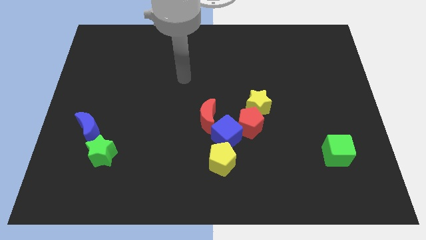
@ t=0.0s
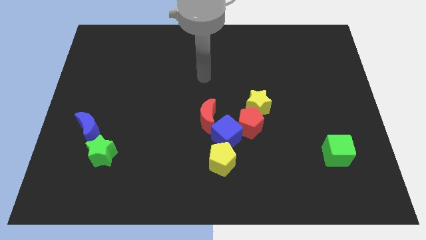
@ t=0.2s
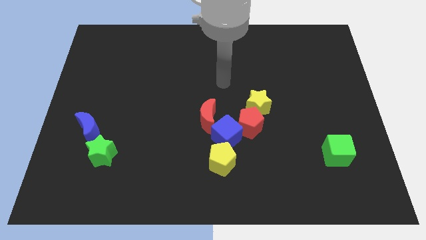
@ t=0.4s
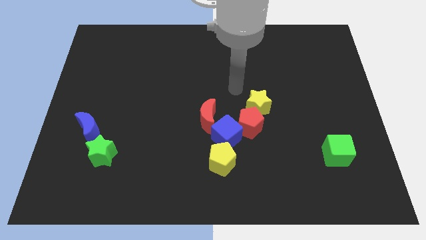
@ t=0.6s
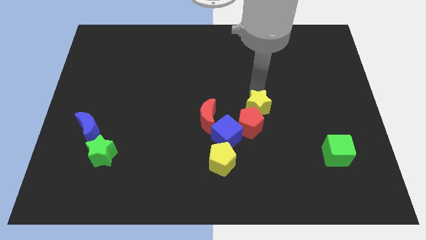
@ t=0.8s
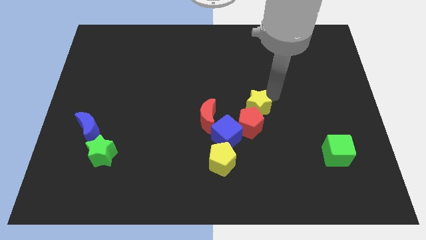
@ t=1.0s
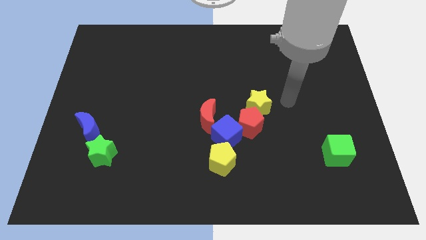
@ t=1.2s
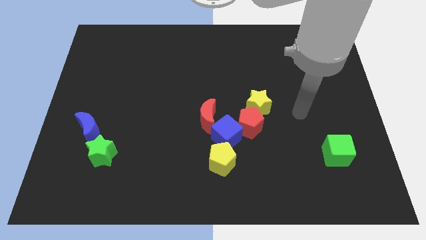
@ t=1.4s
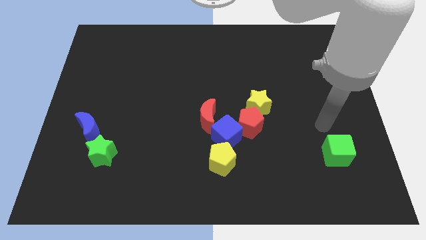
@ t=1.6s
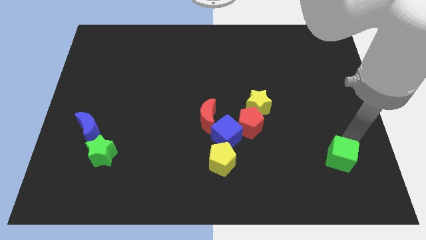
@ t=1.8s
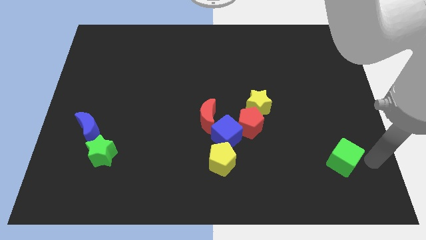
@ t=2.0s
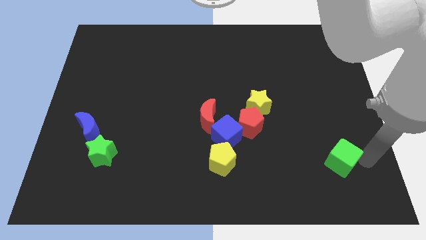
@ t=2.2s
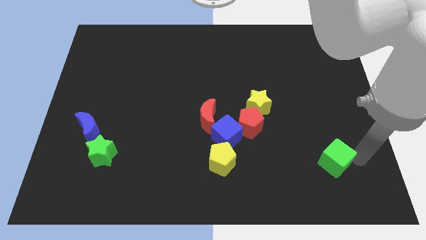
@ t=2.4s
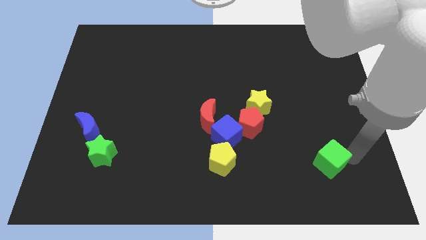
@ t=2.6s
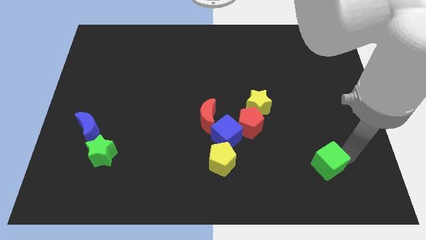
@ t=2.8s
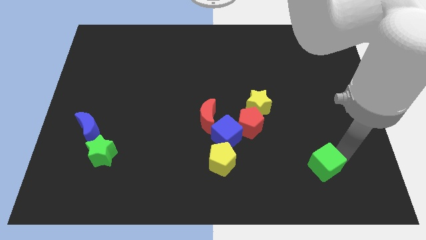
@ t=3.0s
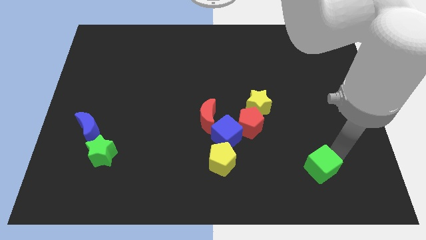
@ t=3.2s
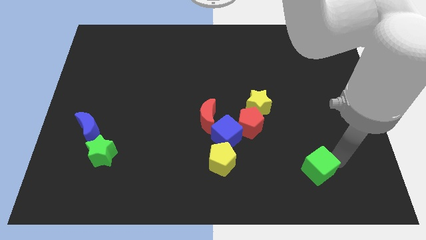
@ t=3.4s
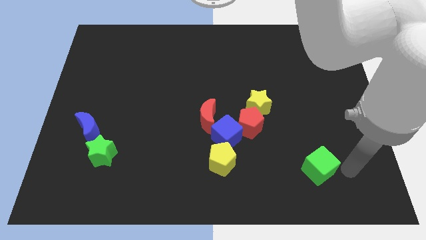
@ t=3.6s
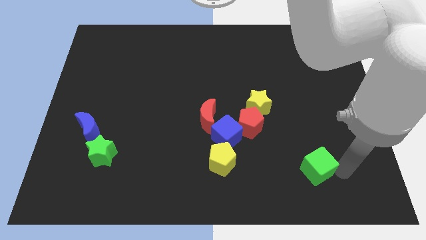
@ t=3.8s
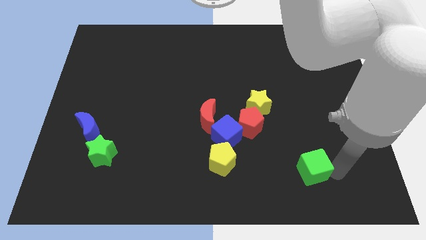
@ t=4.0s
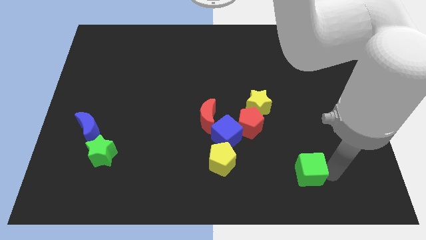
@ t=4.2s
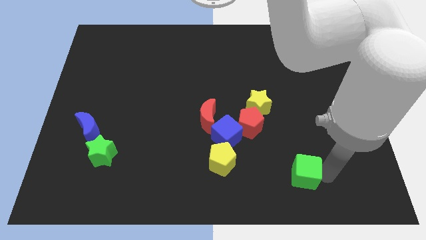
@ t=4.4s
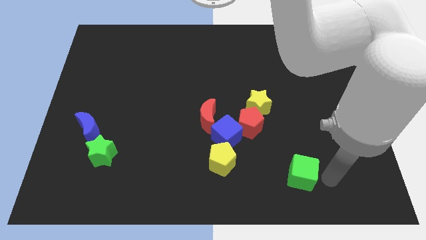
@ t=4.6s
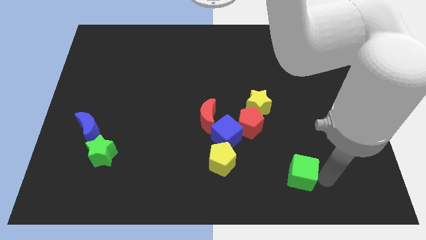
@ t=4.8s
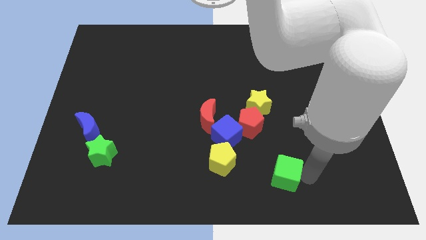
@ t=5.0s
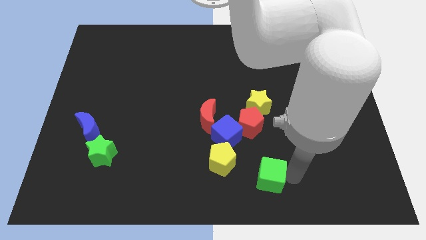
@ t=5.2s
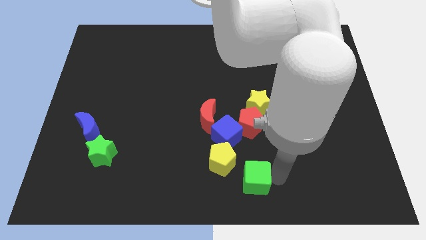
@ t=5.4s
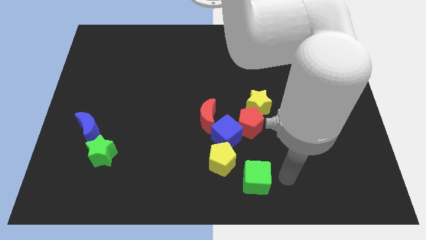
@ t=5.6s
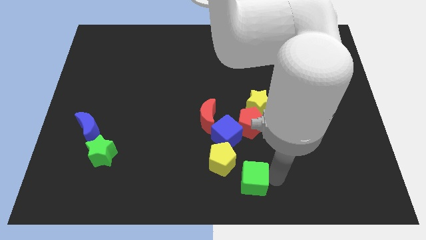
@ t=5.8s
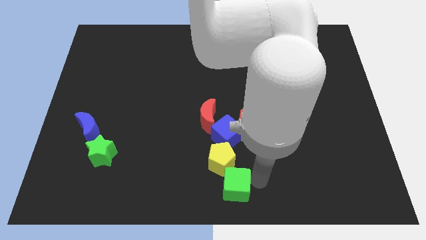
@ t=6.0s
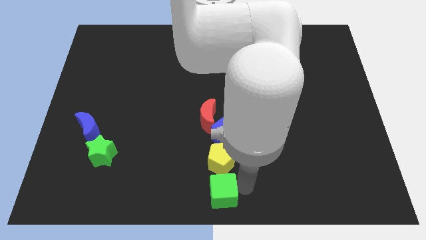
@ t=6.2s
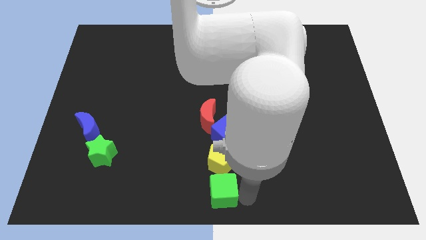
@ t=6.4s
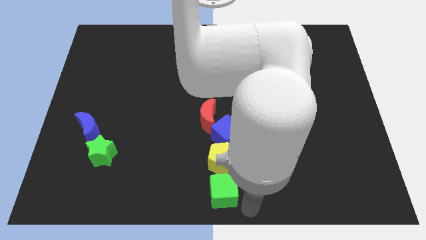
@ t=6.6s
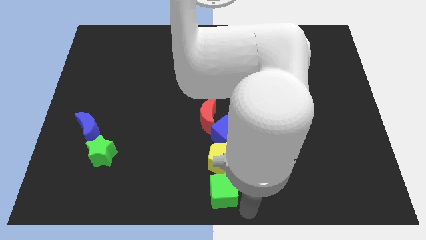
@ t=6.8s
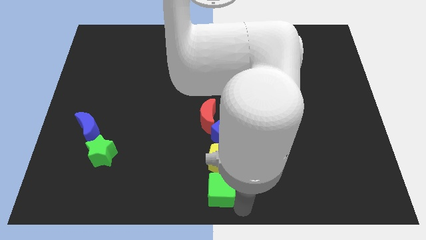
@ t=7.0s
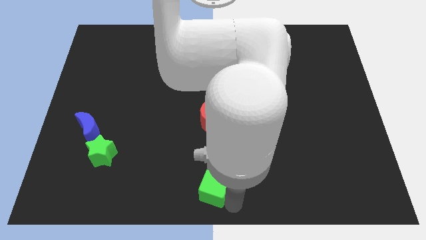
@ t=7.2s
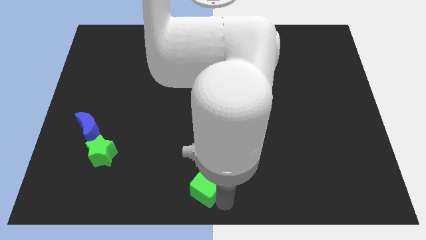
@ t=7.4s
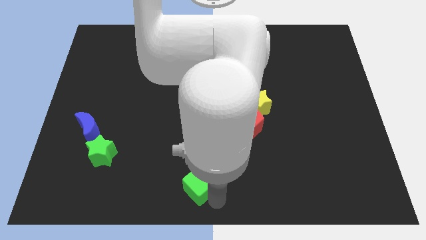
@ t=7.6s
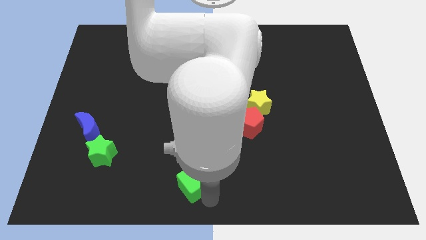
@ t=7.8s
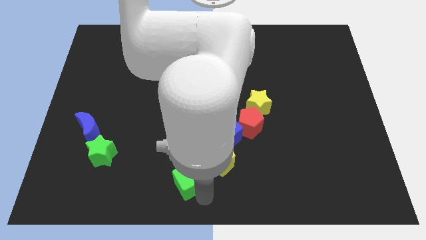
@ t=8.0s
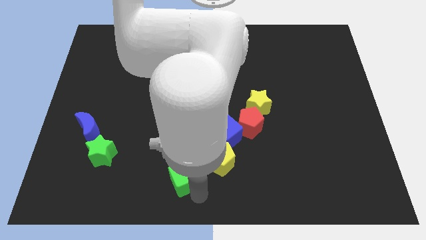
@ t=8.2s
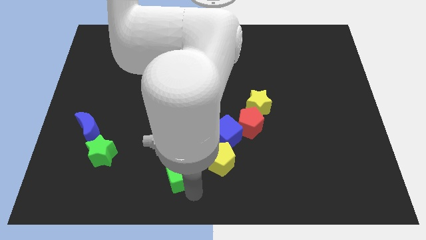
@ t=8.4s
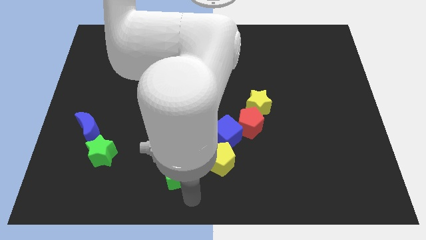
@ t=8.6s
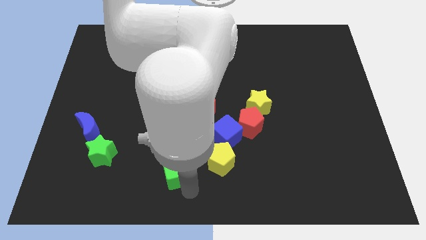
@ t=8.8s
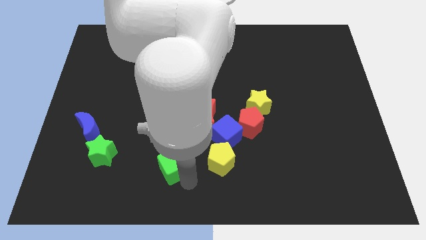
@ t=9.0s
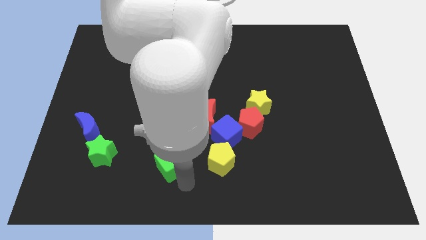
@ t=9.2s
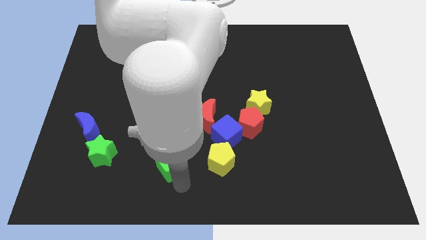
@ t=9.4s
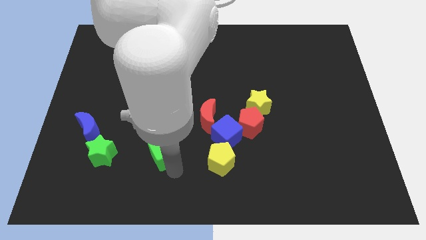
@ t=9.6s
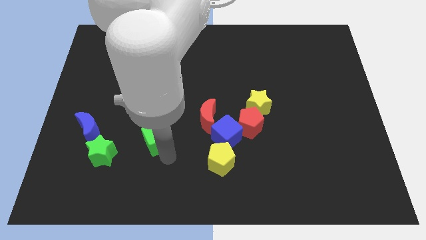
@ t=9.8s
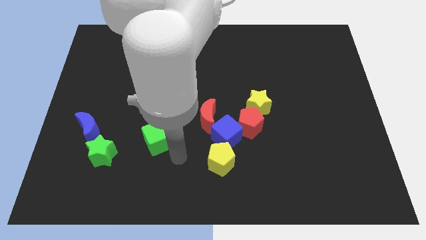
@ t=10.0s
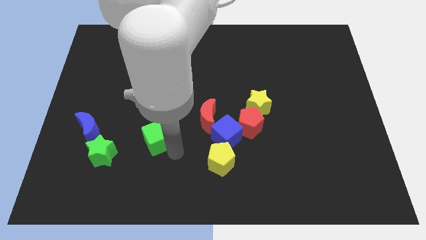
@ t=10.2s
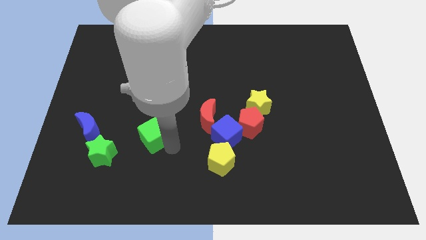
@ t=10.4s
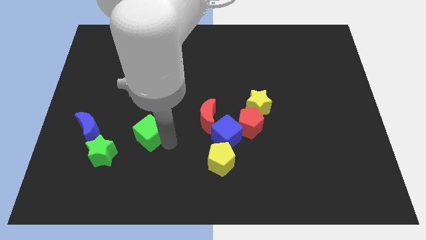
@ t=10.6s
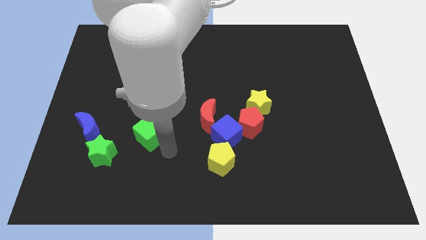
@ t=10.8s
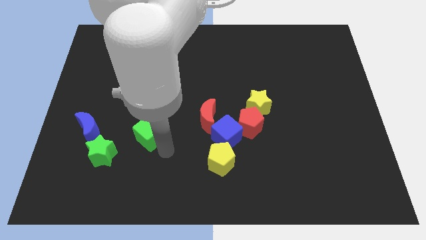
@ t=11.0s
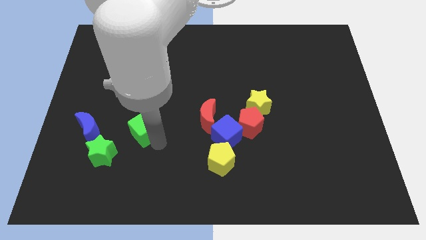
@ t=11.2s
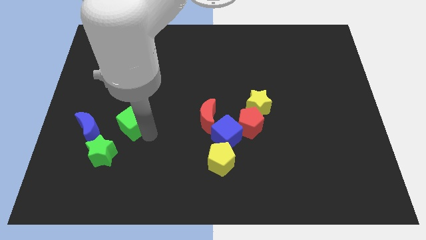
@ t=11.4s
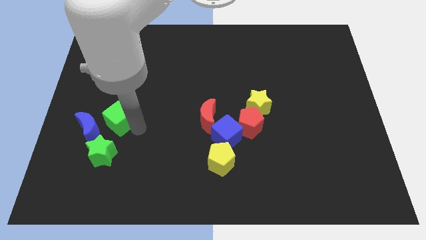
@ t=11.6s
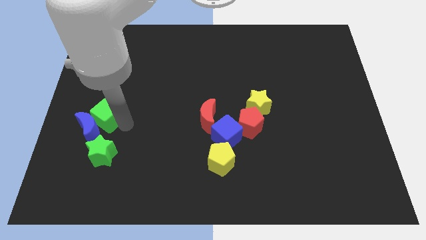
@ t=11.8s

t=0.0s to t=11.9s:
put the green cube to the top side of the blue moon

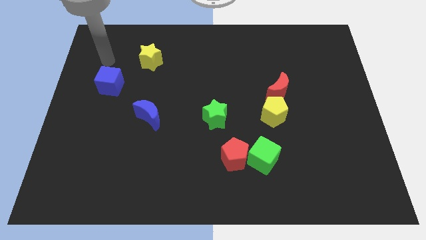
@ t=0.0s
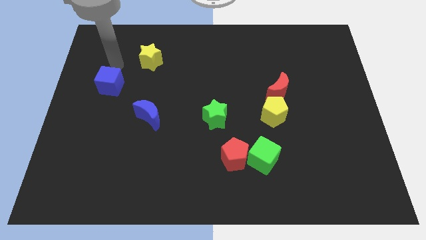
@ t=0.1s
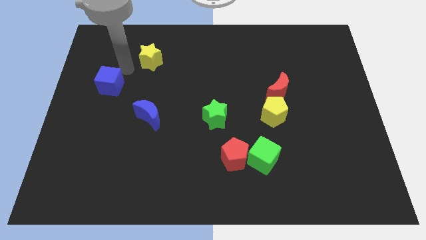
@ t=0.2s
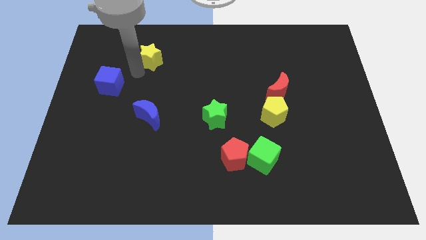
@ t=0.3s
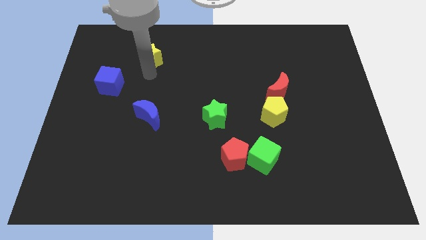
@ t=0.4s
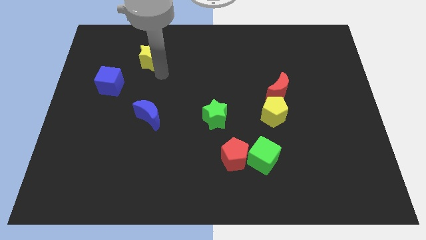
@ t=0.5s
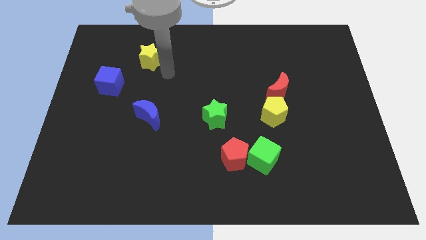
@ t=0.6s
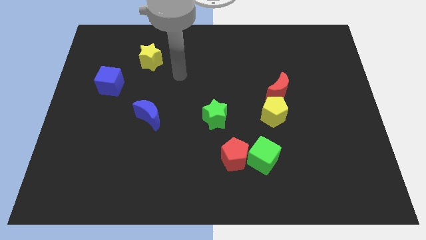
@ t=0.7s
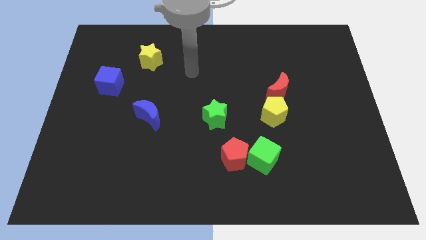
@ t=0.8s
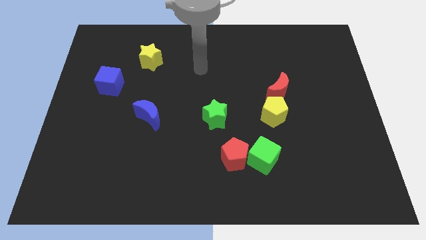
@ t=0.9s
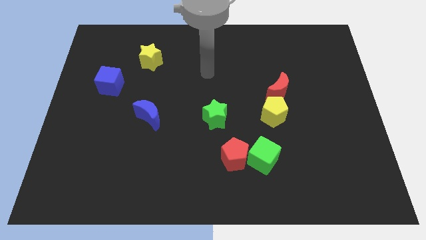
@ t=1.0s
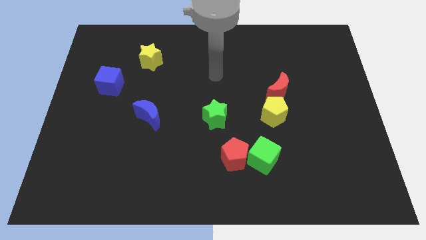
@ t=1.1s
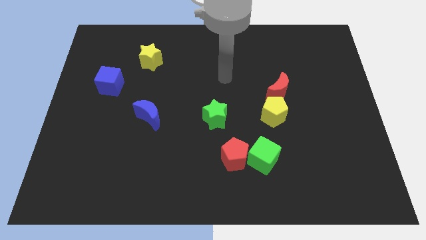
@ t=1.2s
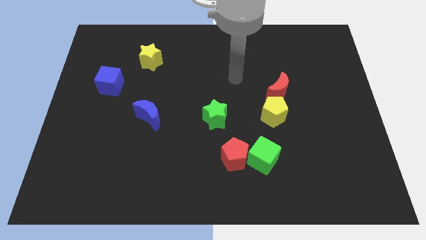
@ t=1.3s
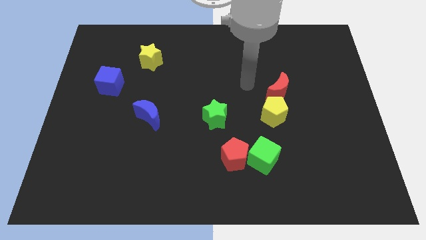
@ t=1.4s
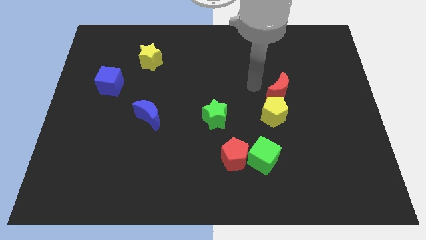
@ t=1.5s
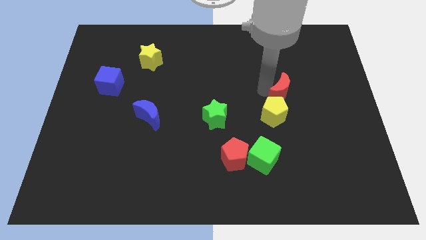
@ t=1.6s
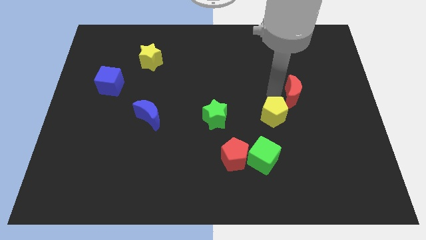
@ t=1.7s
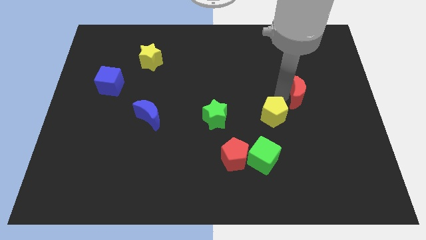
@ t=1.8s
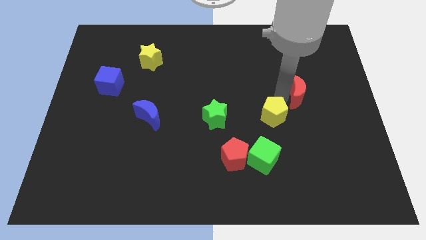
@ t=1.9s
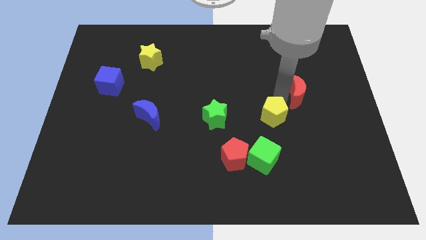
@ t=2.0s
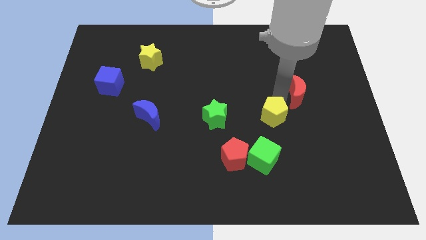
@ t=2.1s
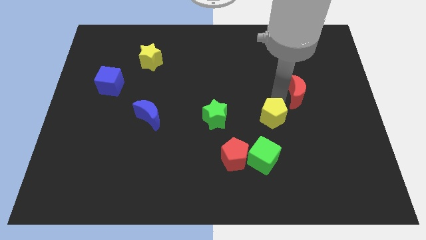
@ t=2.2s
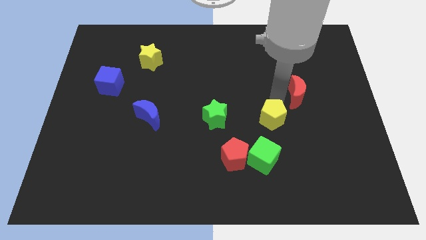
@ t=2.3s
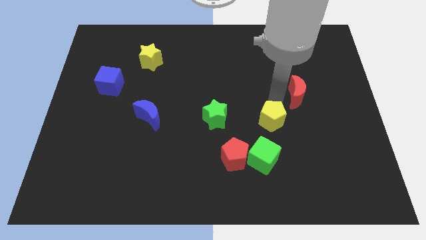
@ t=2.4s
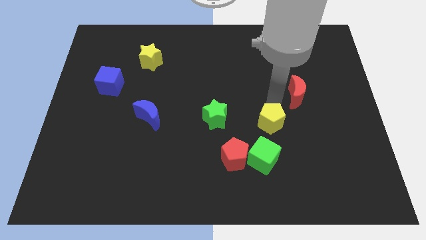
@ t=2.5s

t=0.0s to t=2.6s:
move the yellow pentagon diagonally up and to the right of the red pentagon
